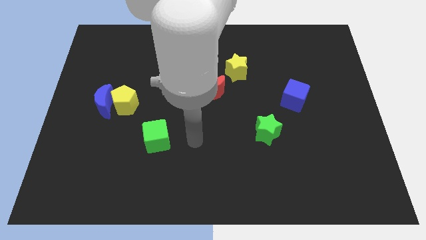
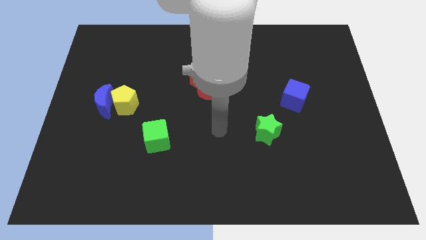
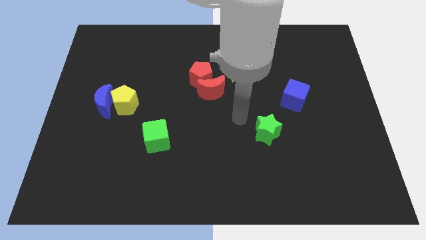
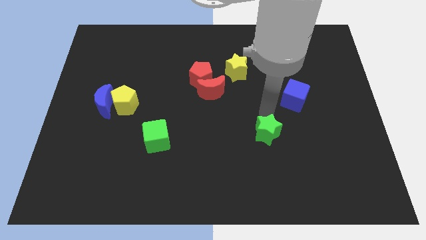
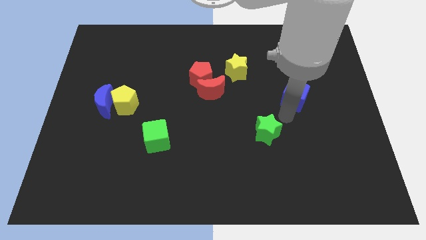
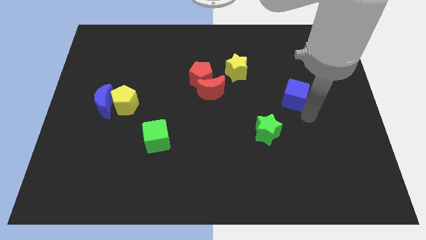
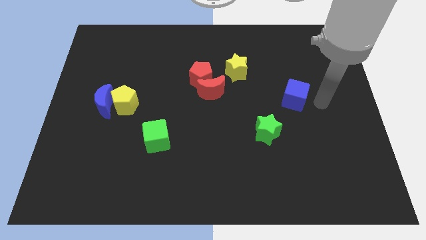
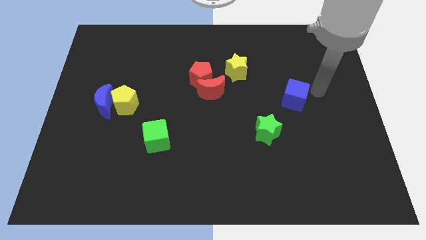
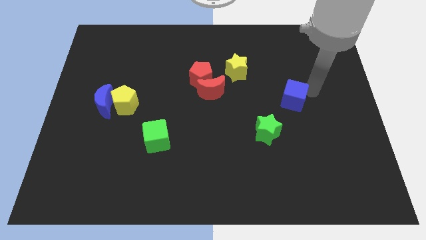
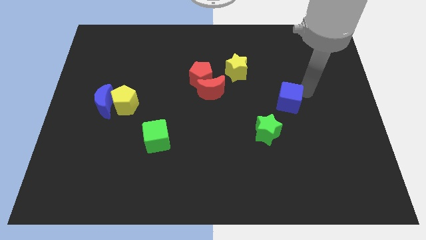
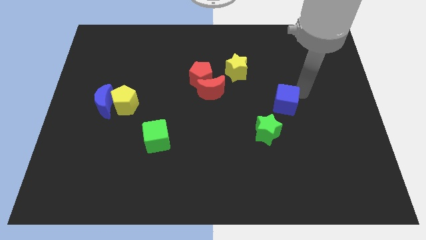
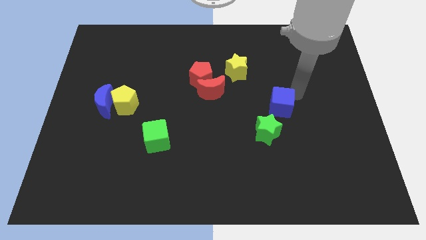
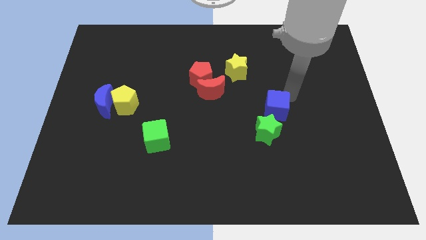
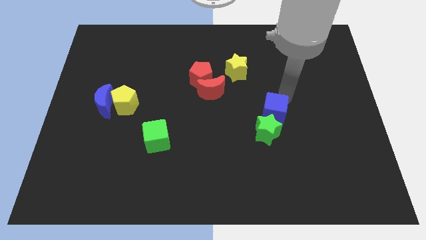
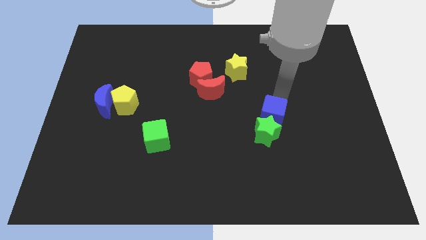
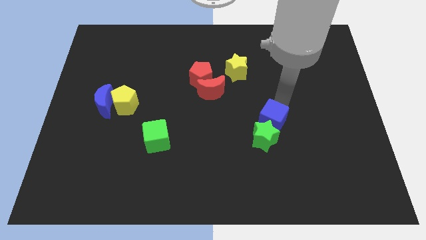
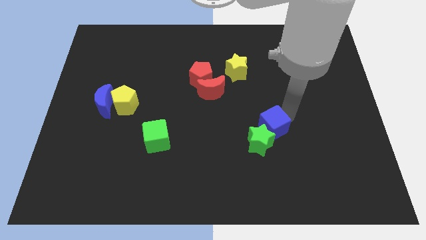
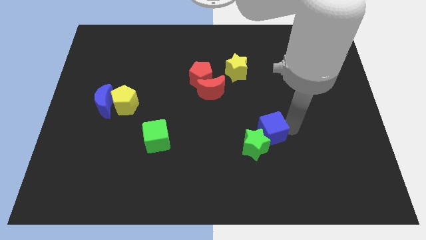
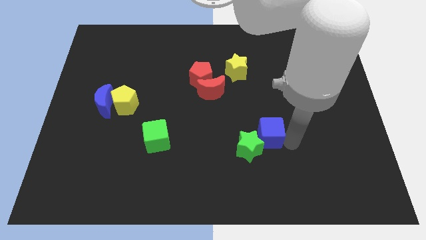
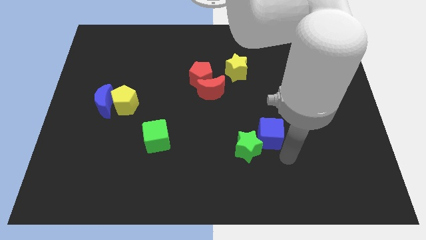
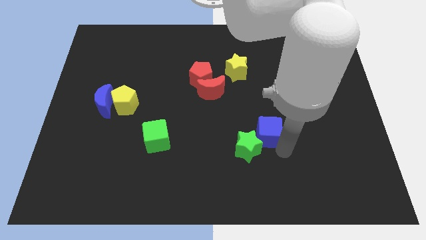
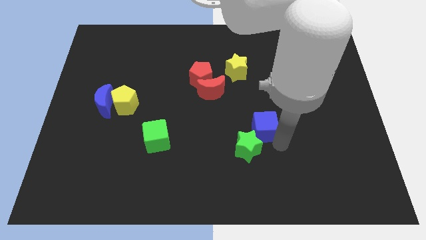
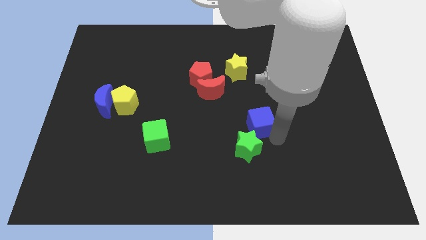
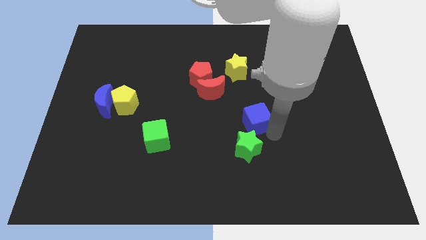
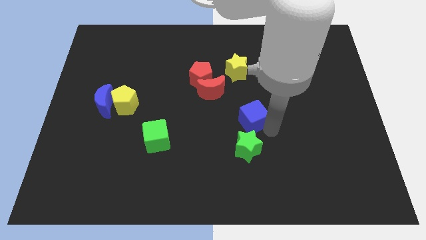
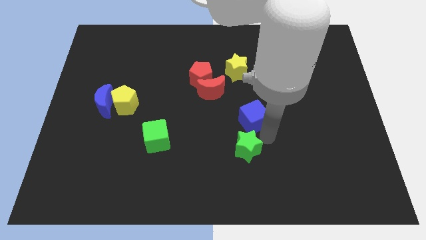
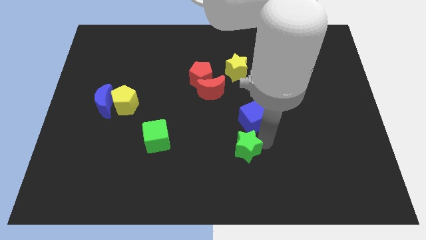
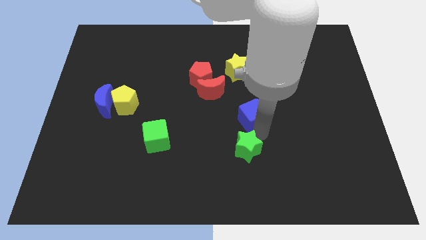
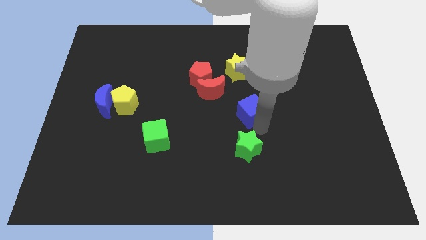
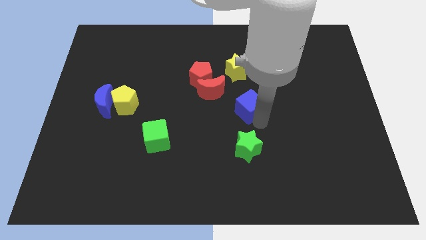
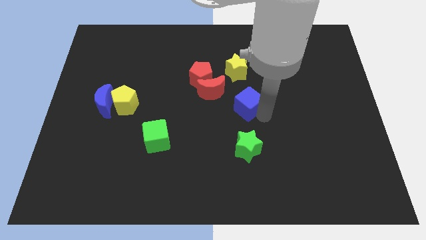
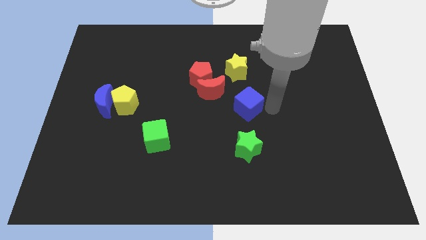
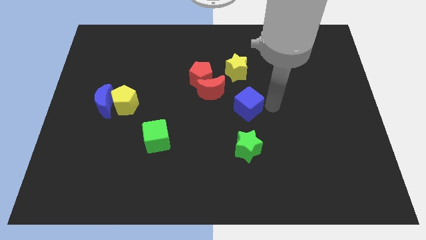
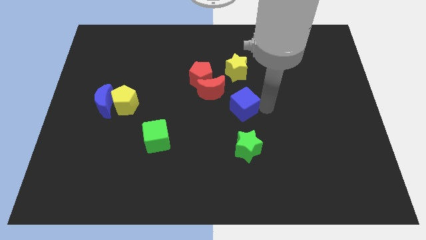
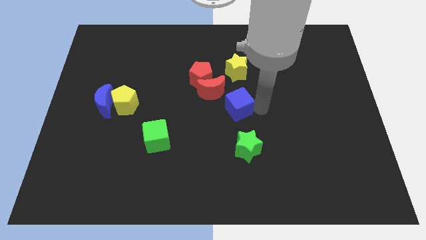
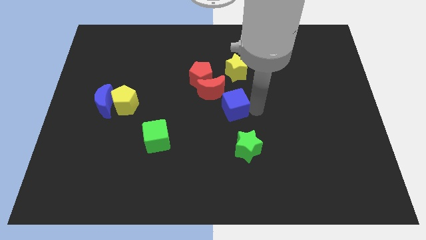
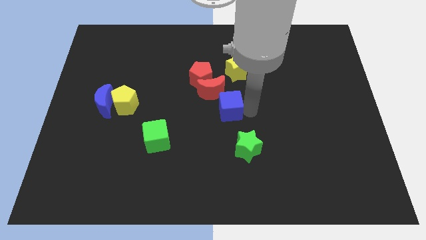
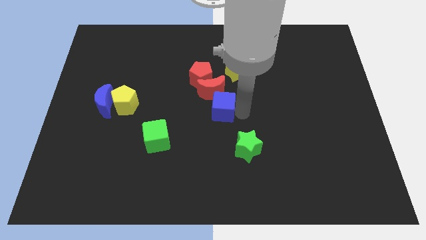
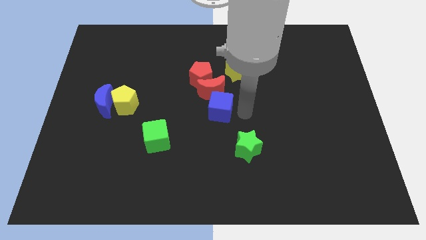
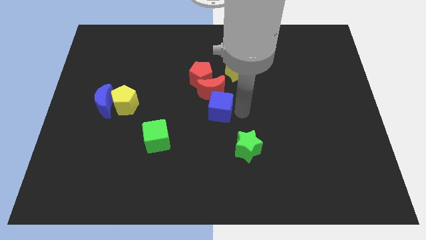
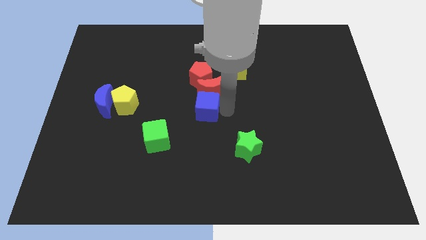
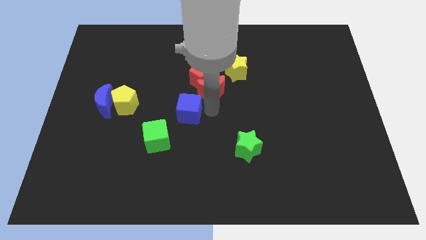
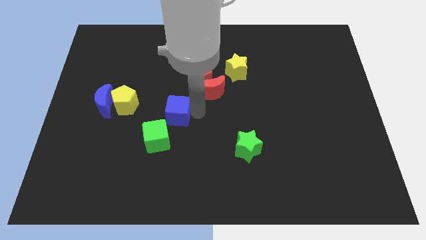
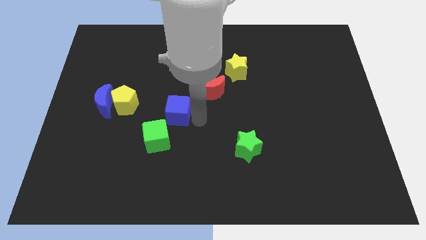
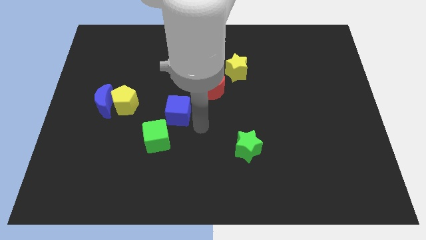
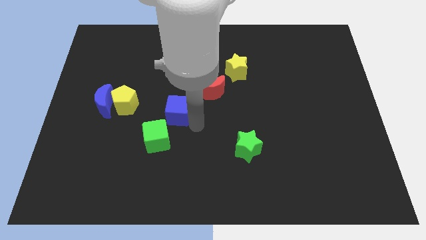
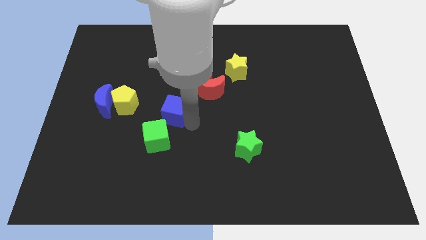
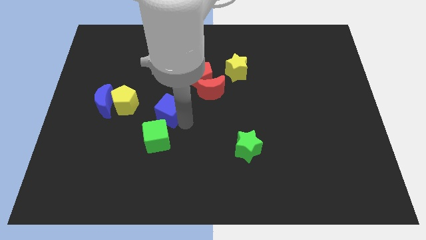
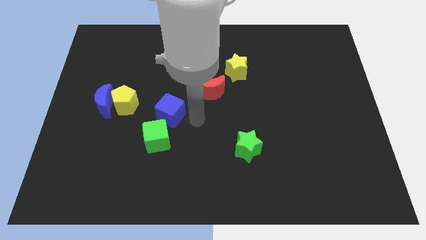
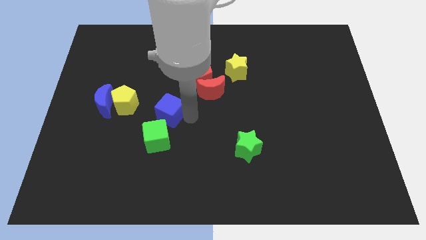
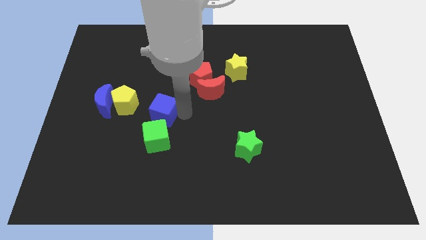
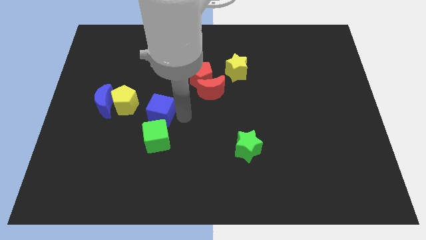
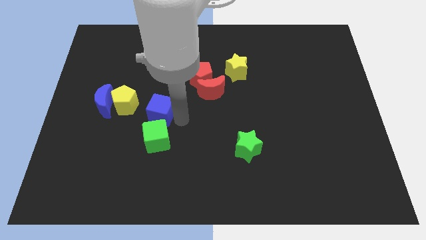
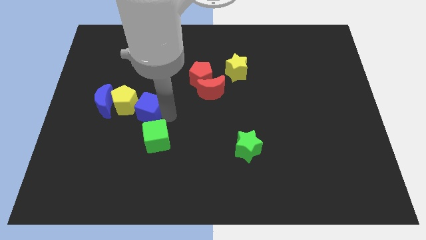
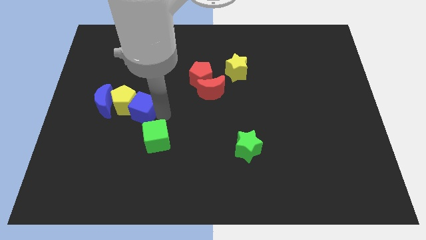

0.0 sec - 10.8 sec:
push the blue cube next to the yellow pentagon

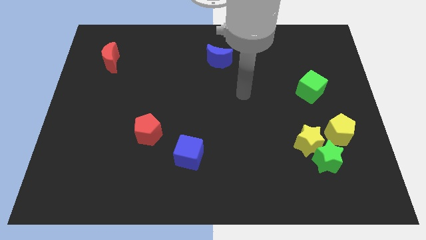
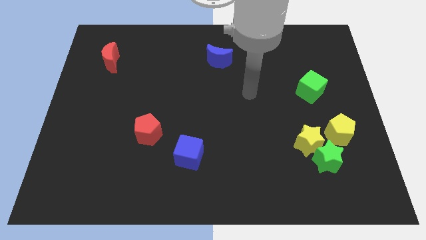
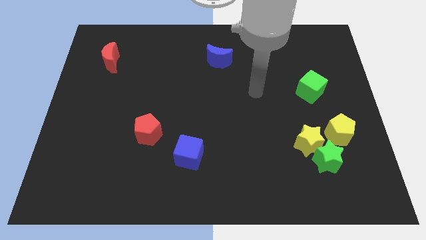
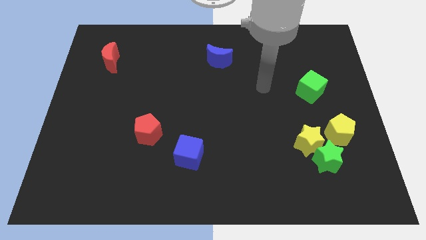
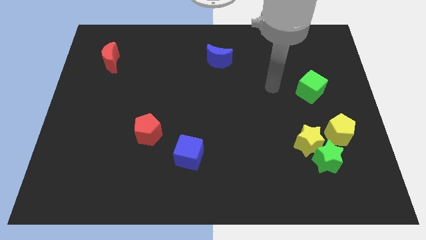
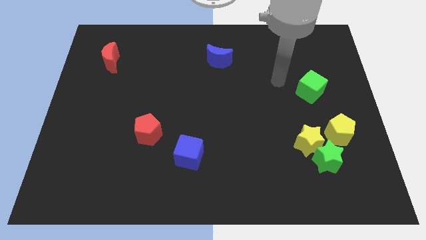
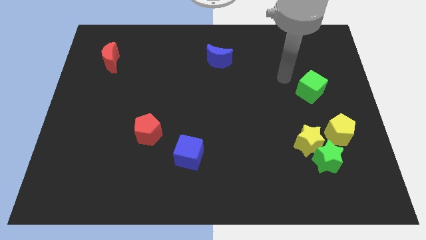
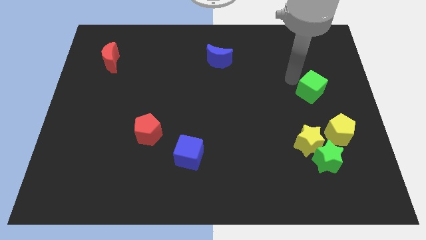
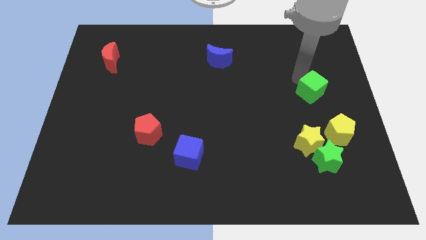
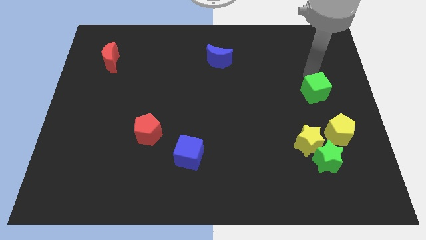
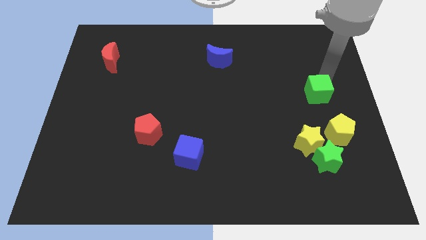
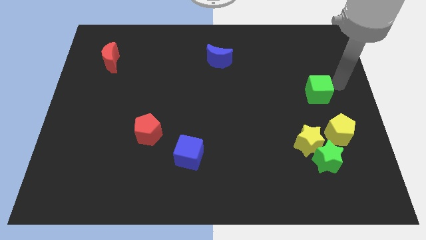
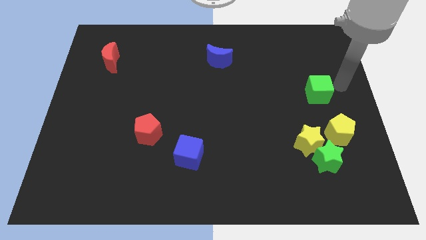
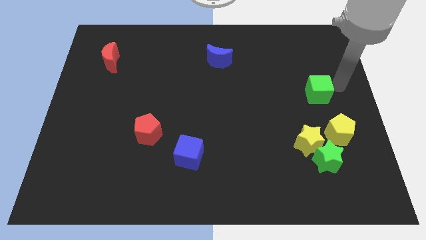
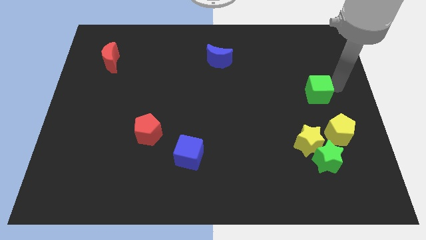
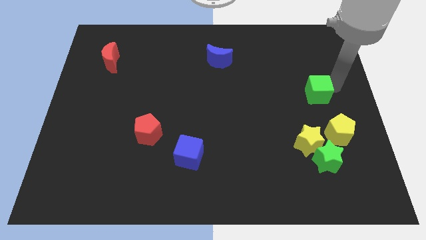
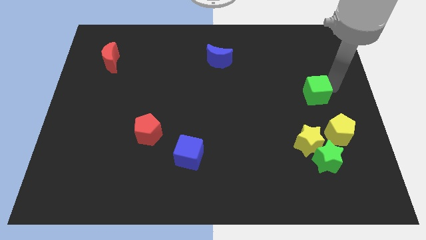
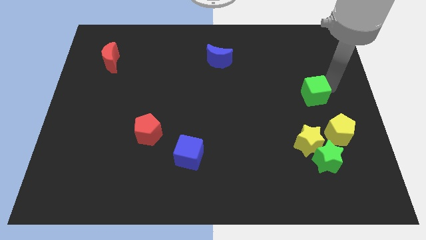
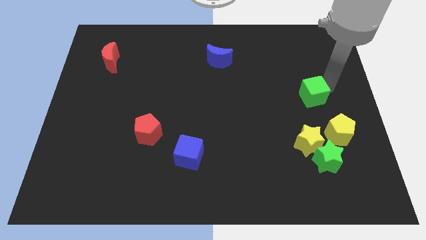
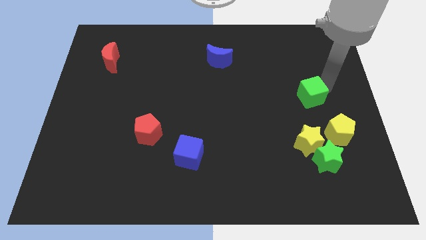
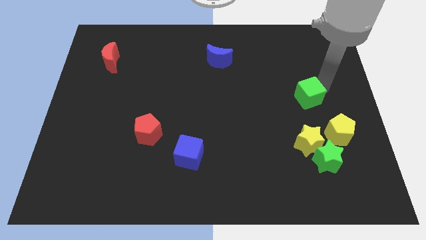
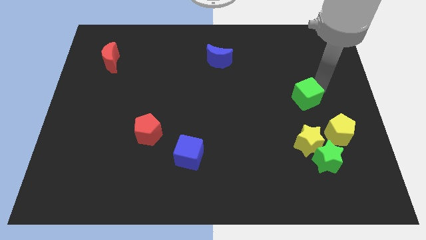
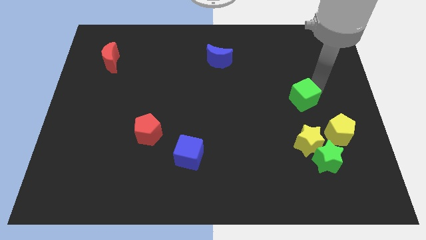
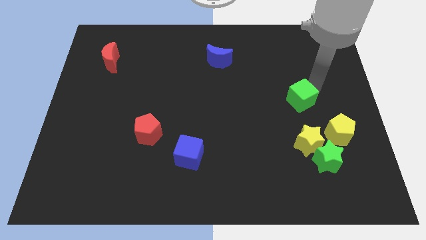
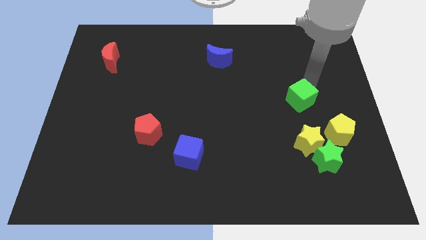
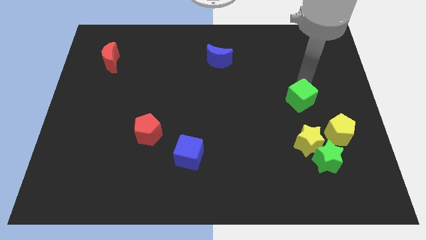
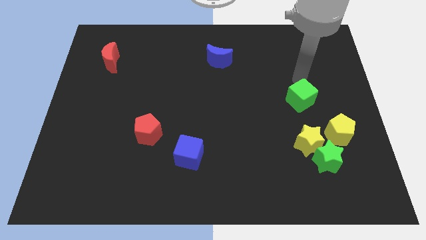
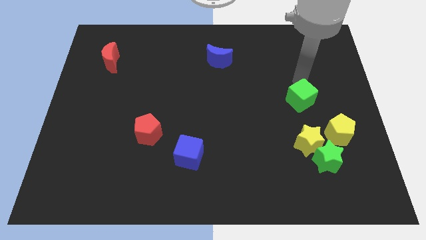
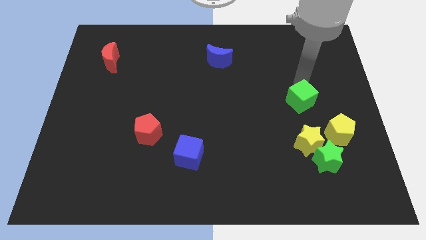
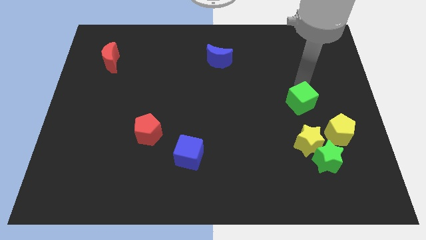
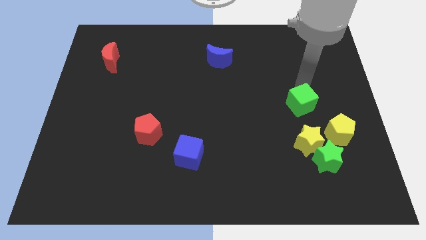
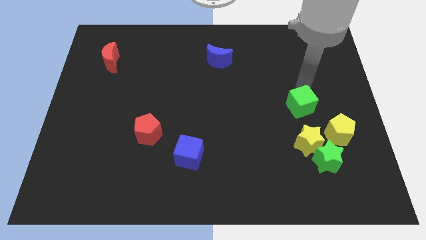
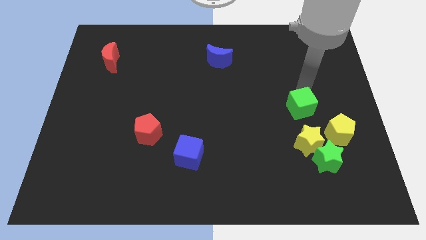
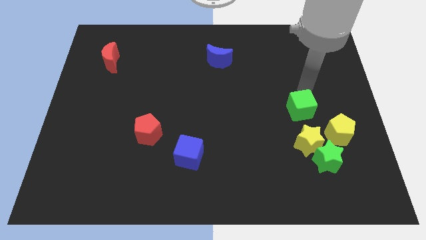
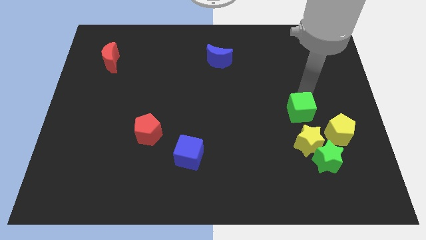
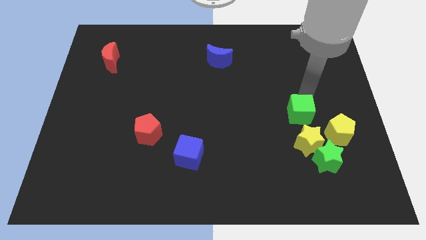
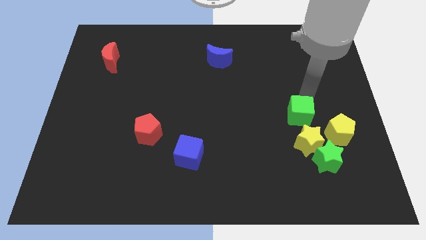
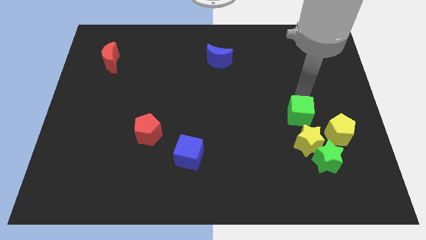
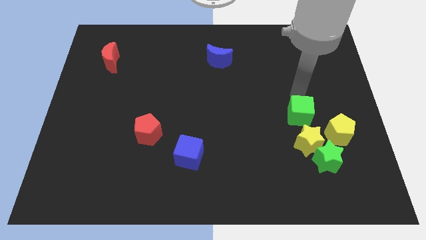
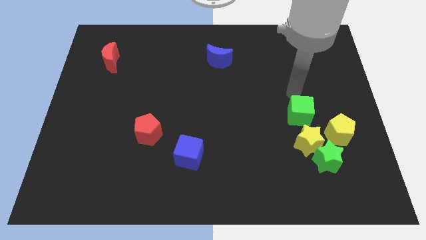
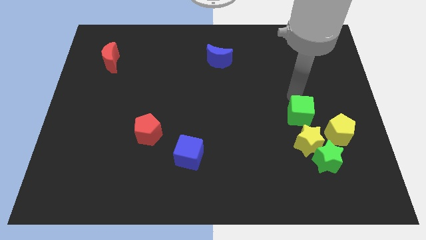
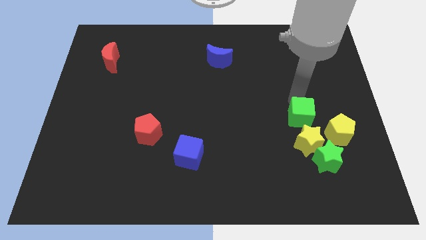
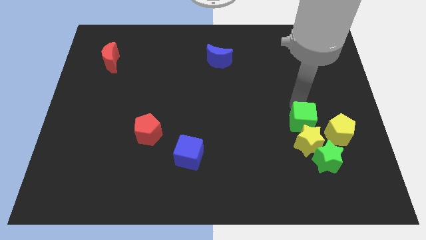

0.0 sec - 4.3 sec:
move the green cube next to the yellow star
